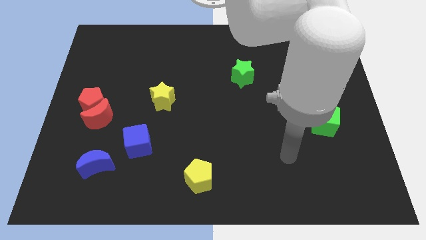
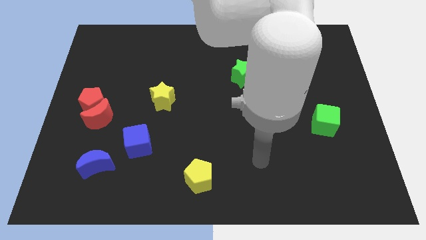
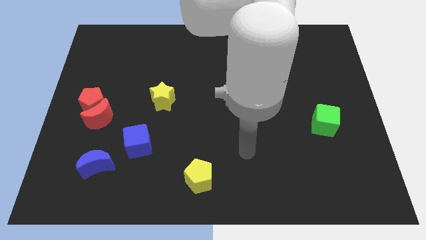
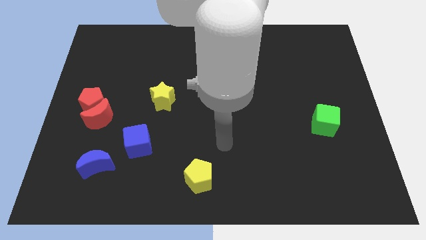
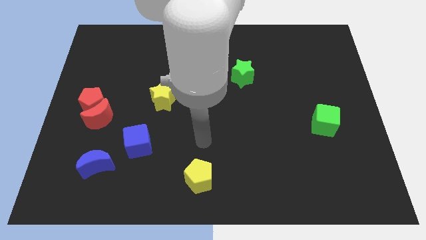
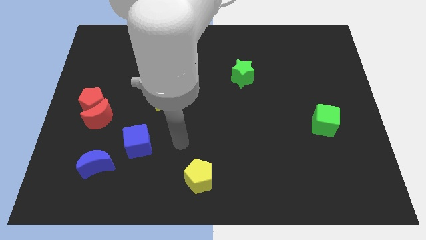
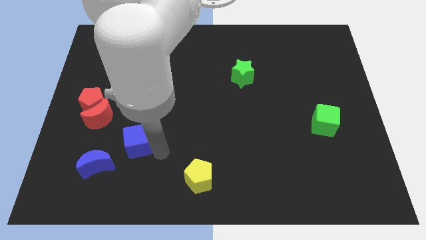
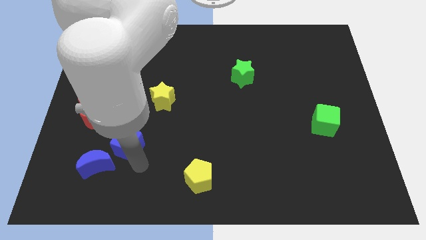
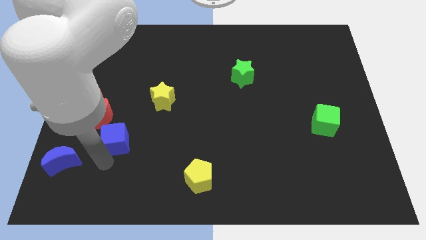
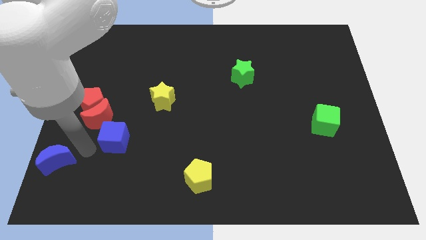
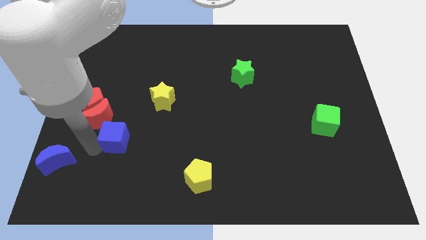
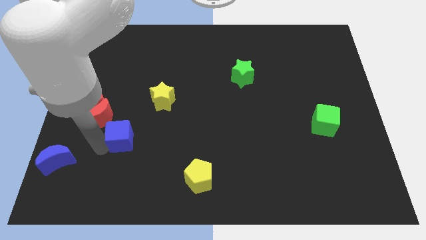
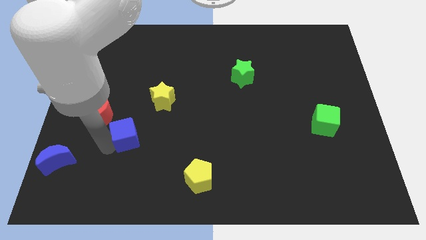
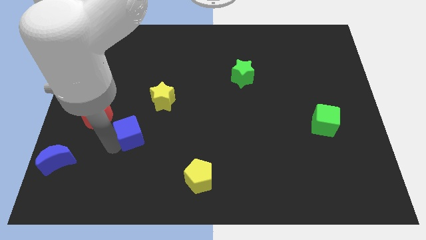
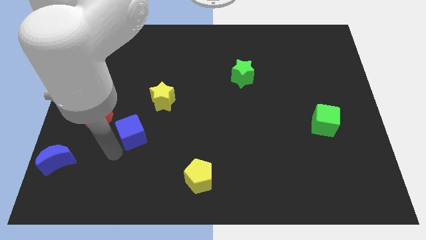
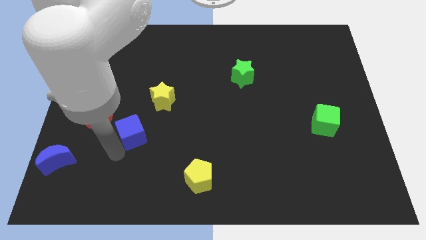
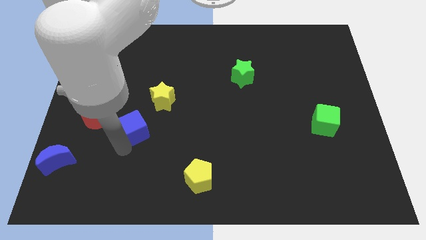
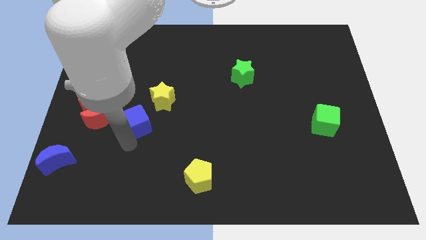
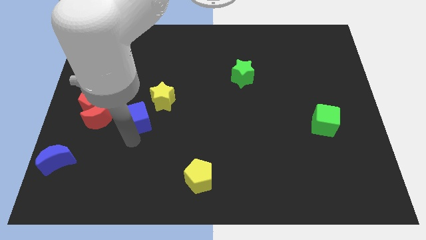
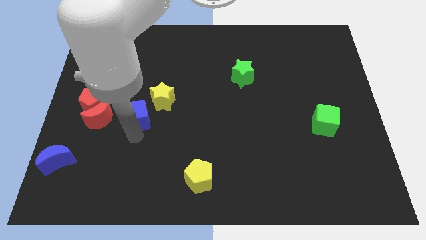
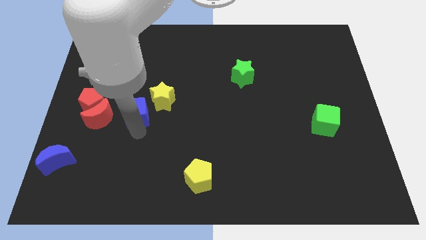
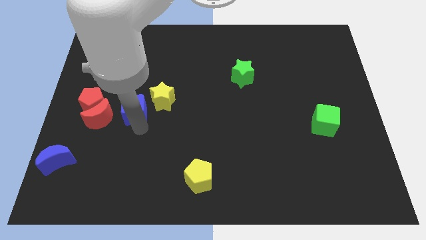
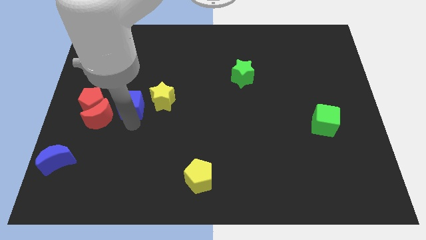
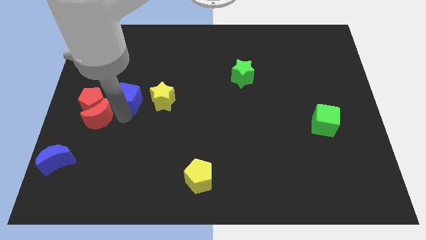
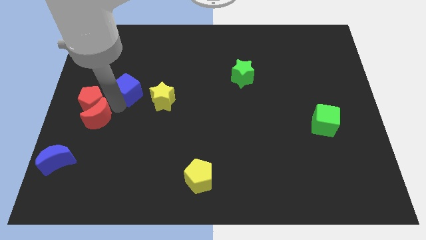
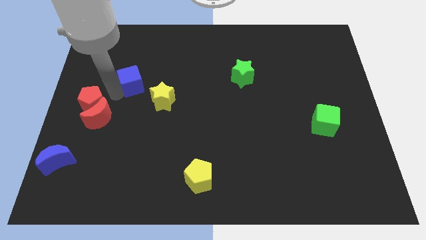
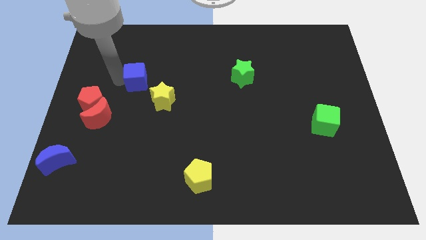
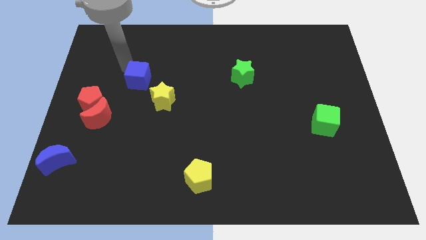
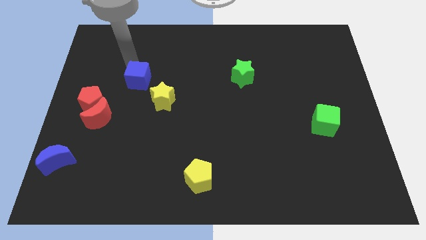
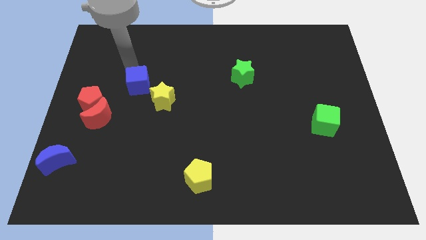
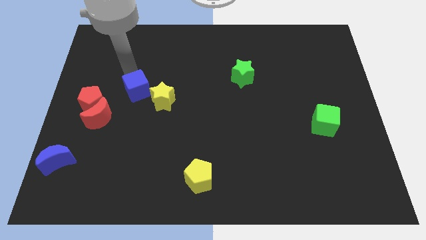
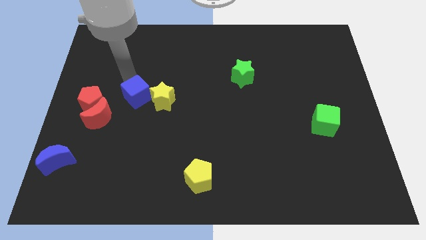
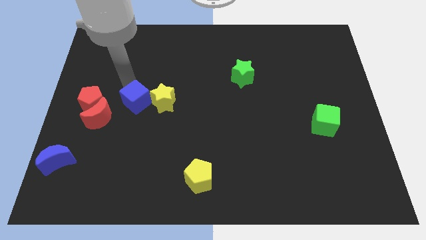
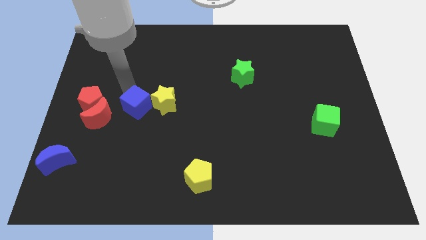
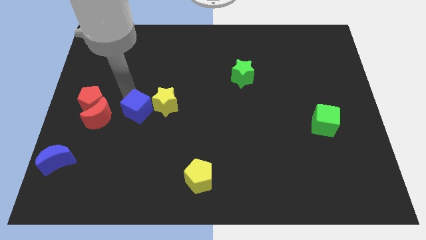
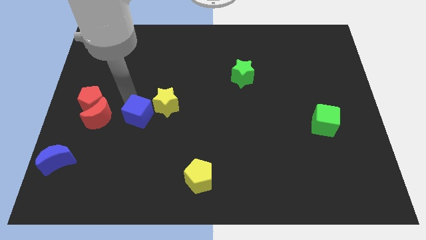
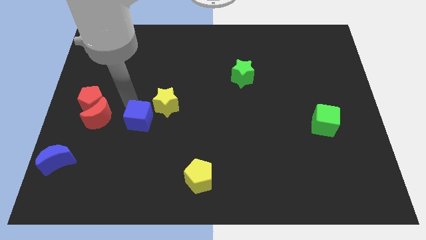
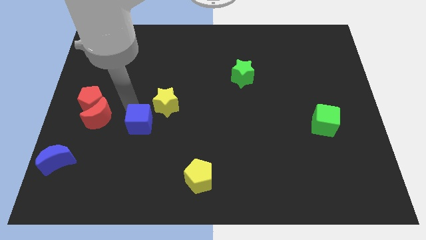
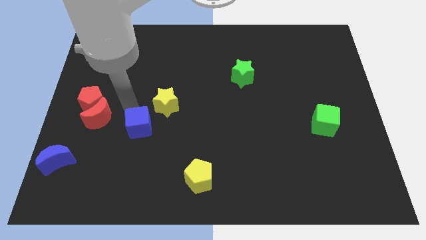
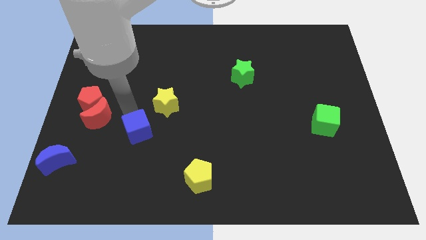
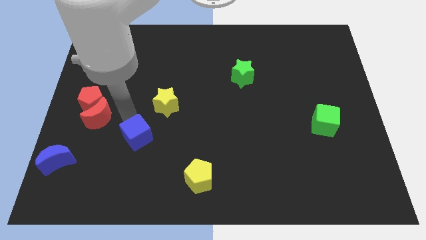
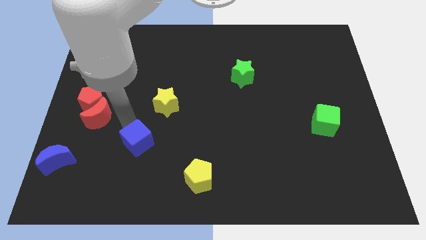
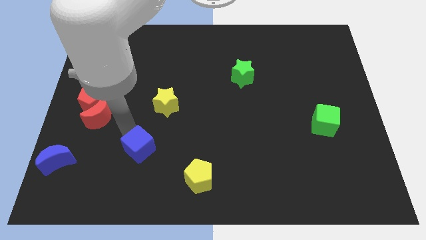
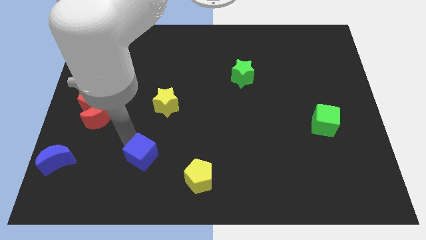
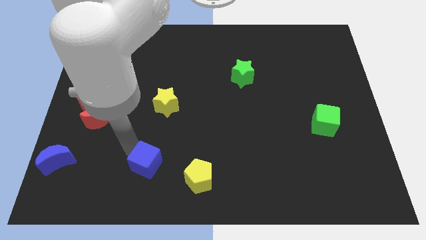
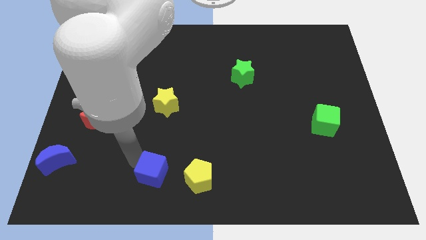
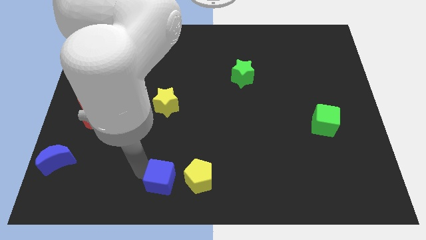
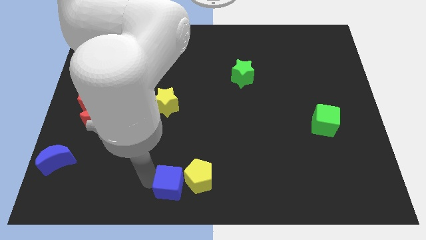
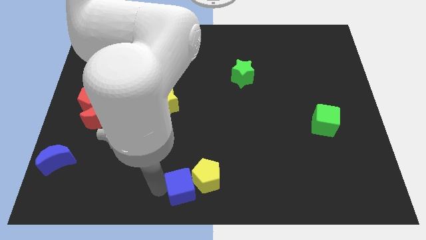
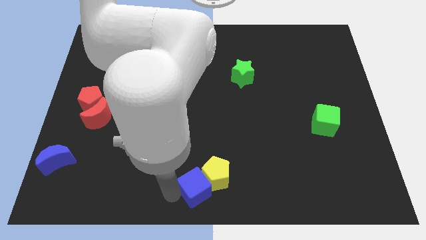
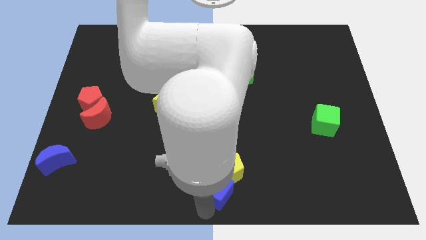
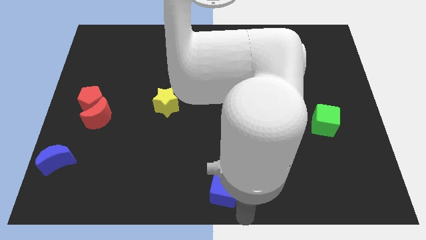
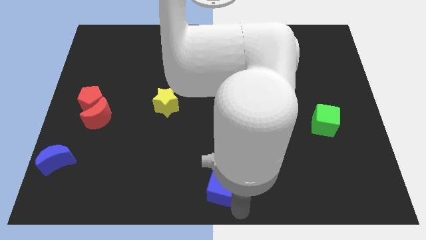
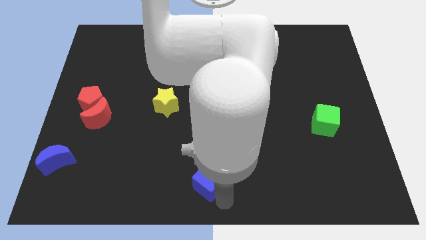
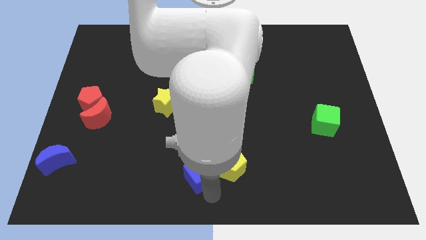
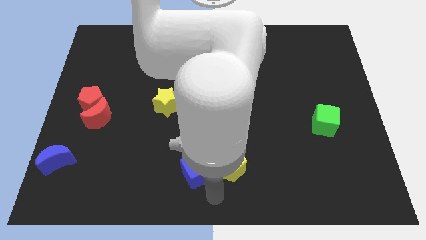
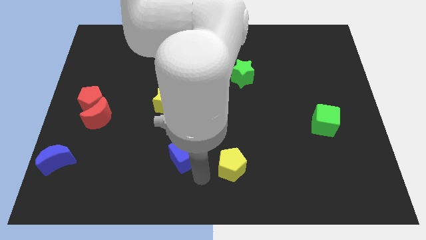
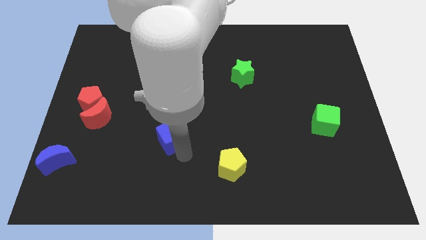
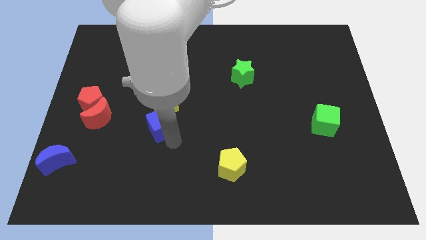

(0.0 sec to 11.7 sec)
move the blue cube close to the yellow star

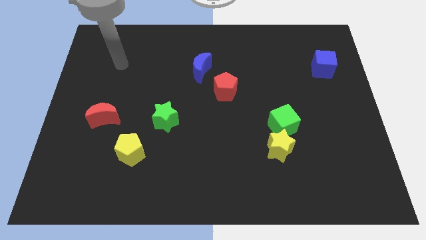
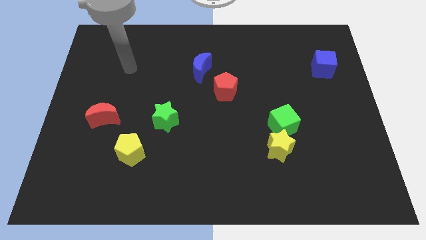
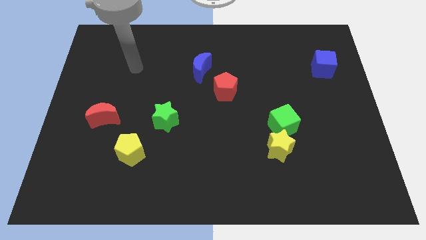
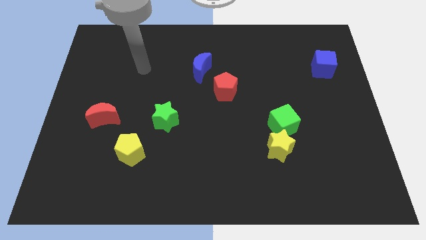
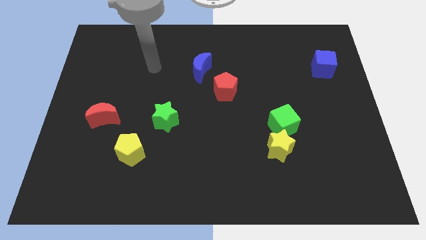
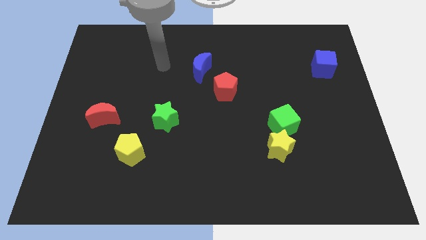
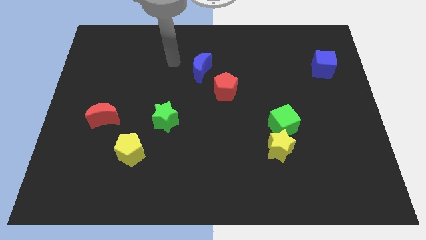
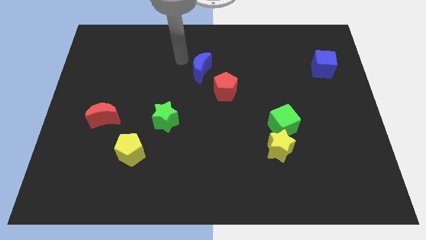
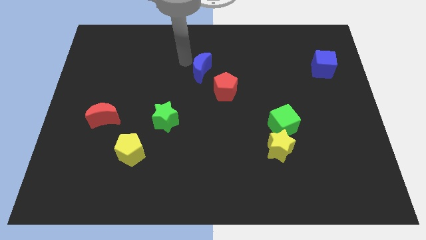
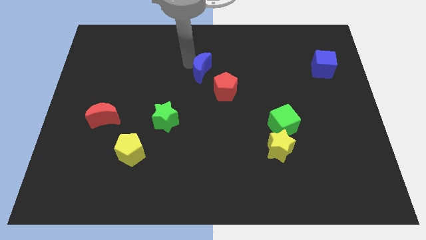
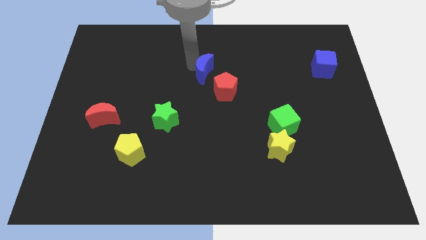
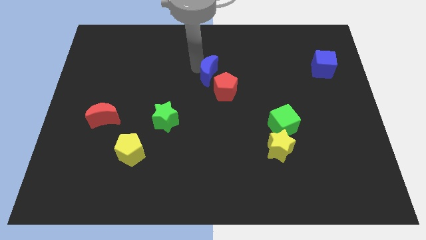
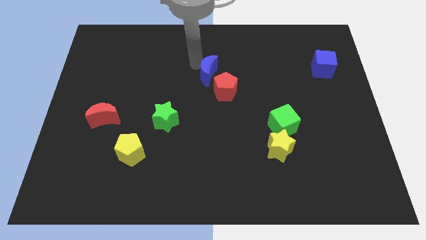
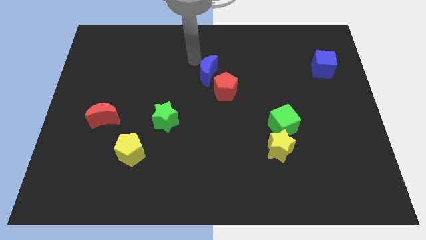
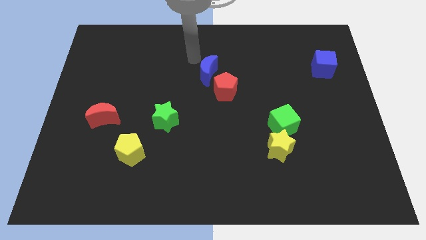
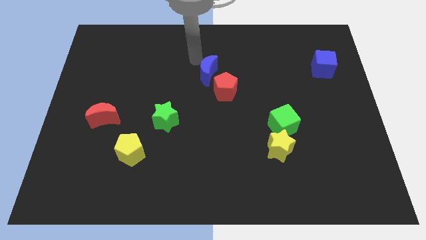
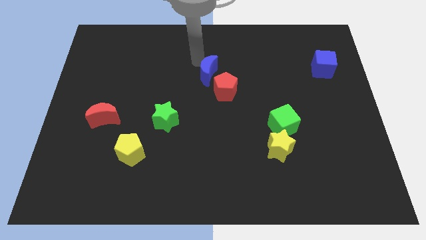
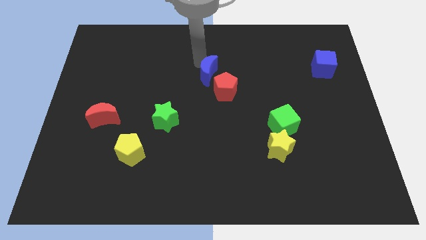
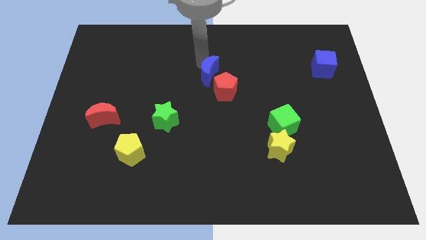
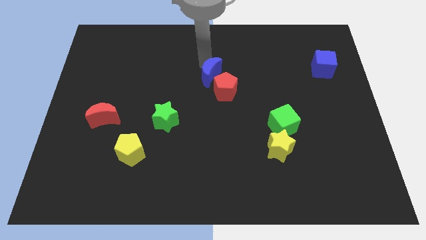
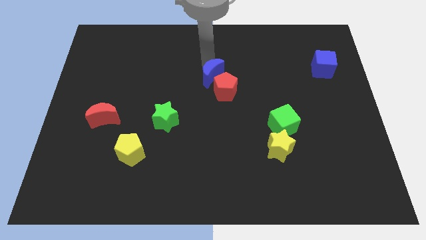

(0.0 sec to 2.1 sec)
put the blue moon next to the red pentagon

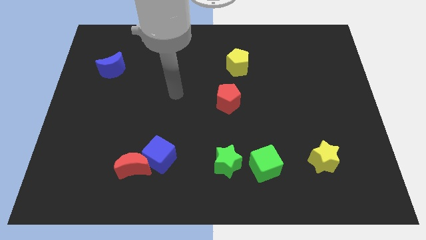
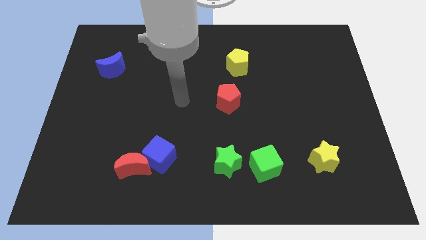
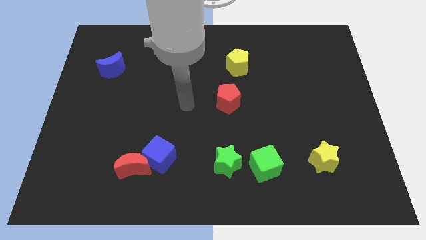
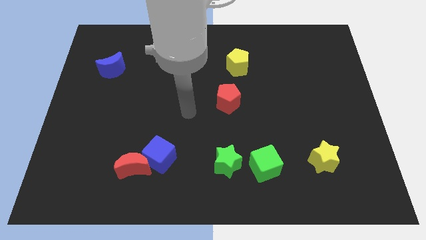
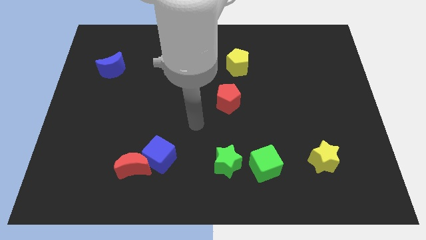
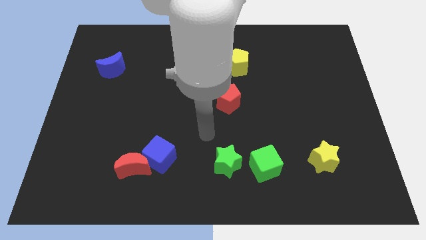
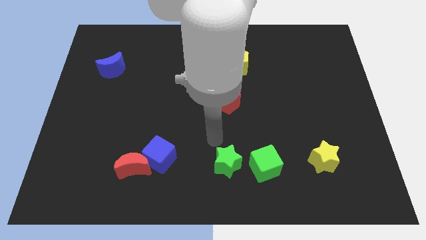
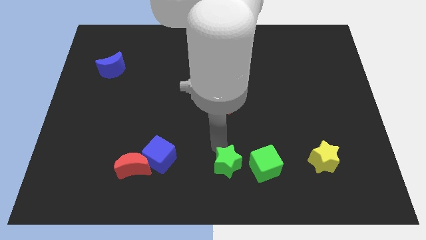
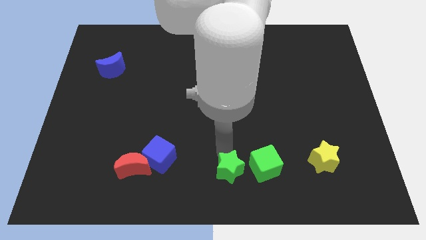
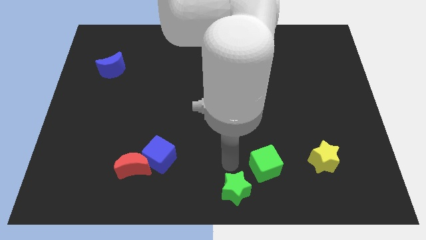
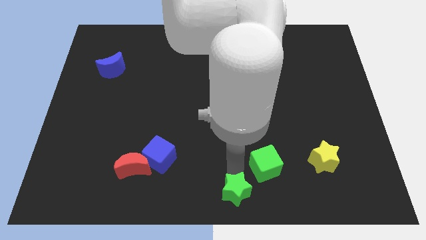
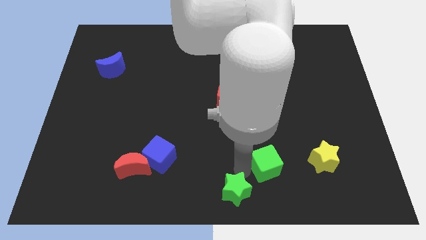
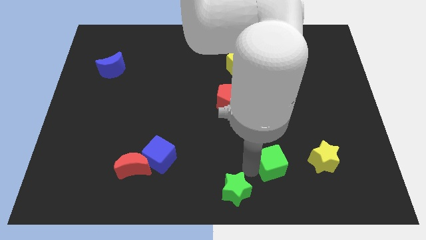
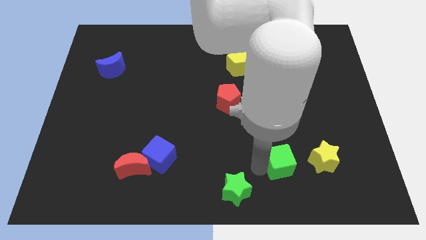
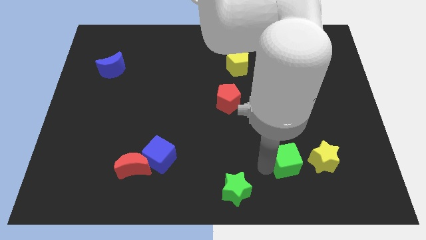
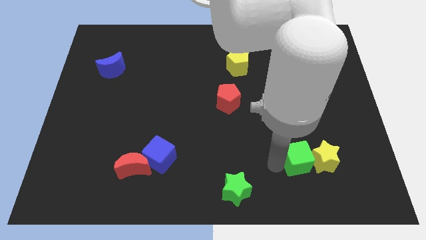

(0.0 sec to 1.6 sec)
slide the green cube close to the yellow star
